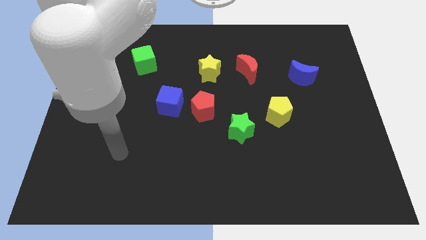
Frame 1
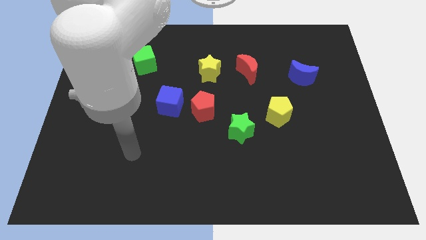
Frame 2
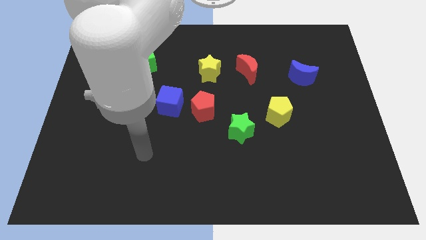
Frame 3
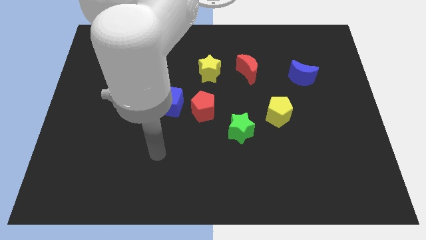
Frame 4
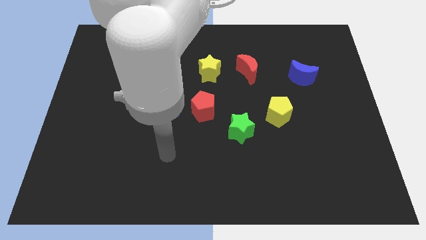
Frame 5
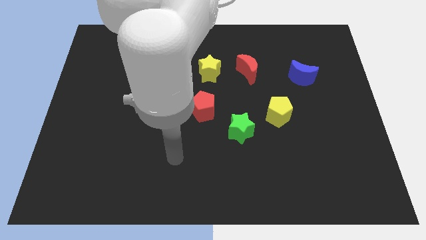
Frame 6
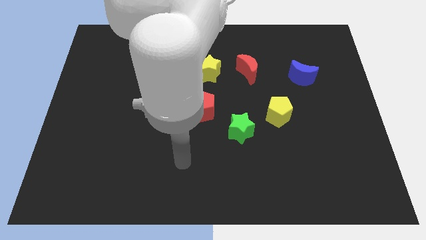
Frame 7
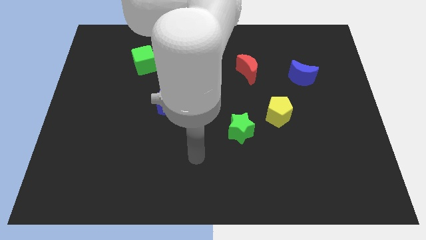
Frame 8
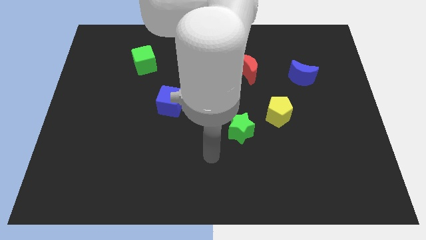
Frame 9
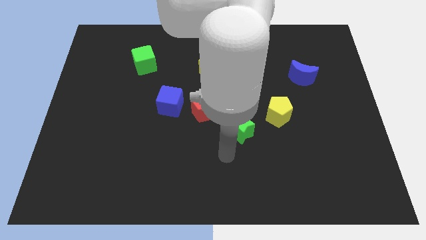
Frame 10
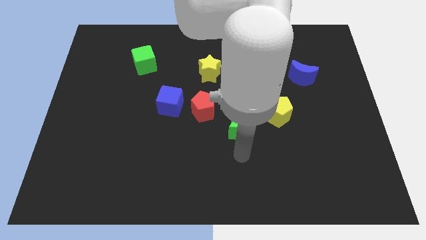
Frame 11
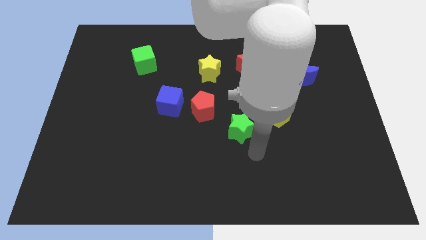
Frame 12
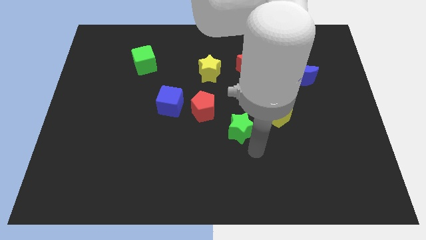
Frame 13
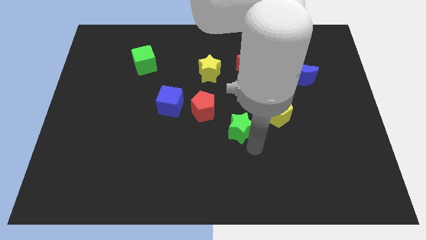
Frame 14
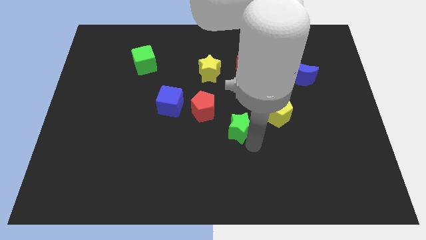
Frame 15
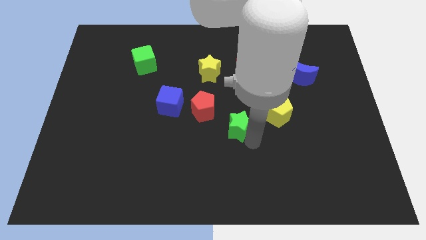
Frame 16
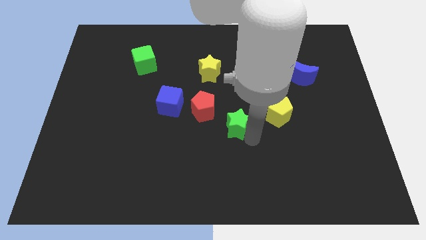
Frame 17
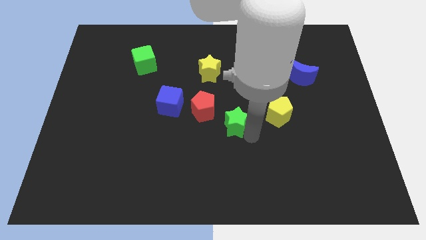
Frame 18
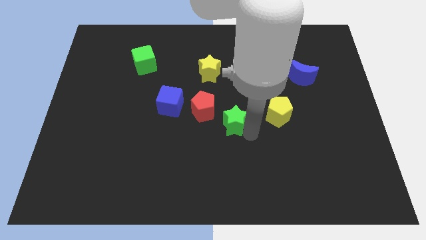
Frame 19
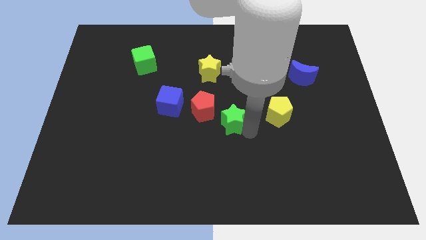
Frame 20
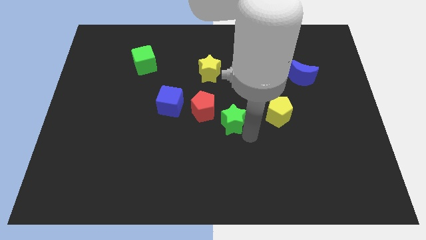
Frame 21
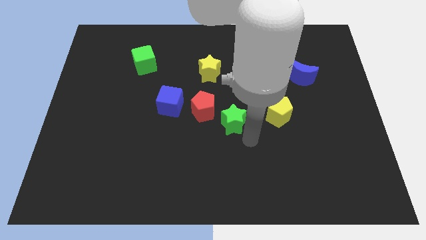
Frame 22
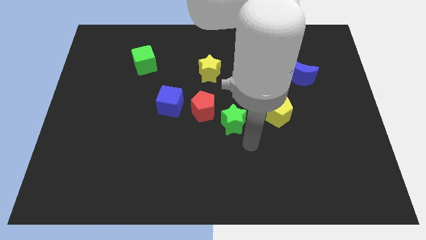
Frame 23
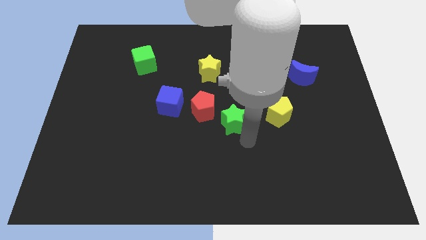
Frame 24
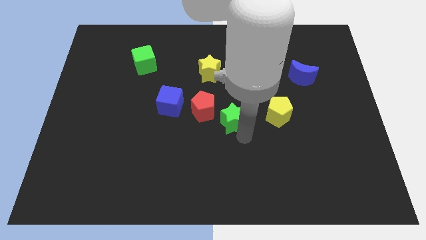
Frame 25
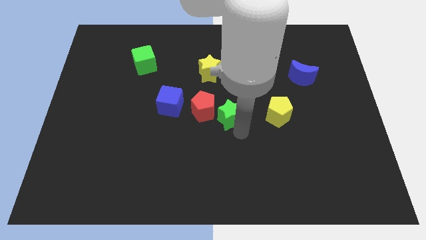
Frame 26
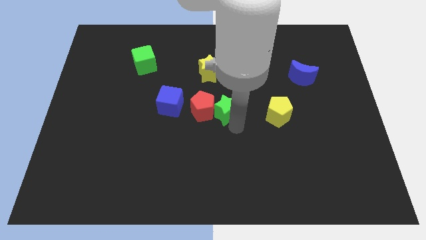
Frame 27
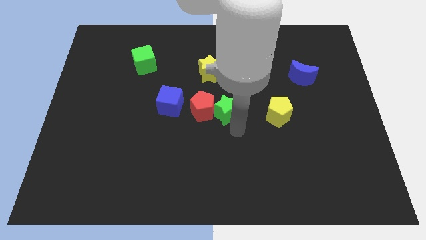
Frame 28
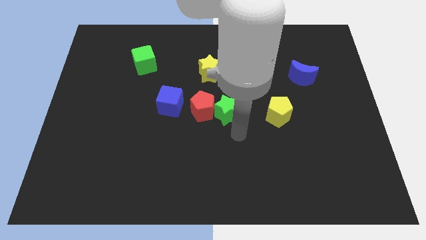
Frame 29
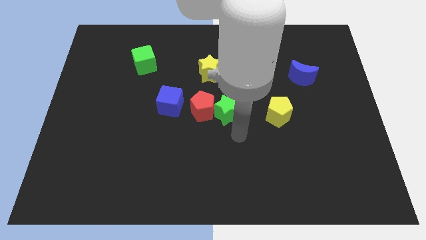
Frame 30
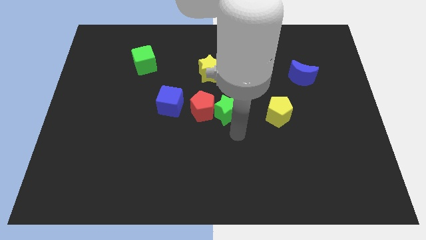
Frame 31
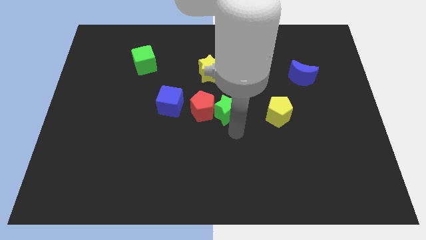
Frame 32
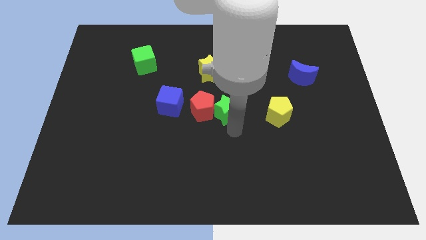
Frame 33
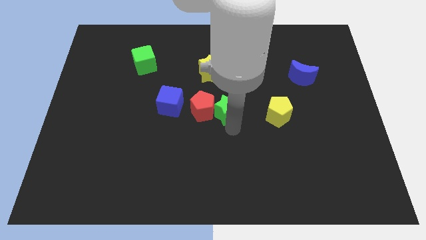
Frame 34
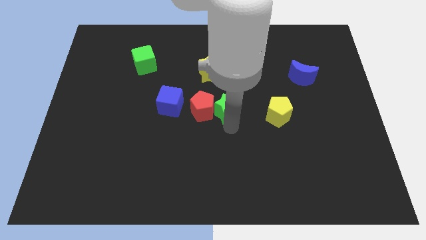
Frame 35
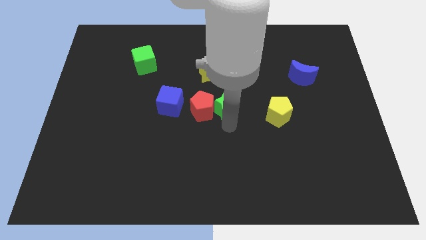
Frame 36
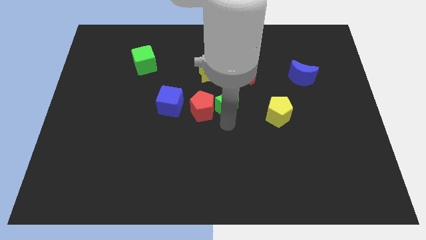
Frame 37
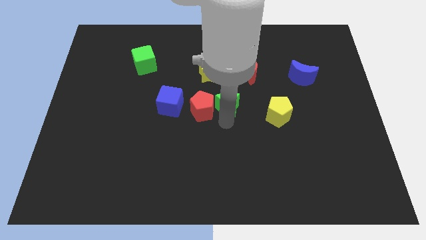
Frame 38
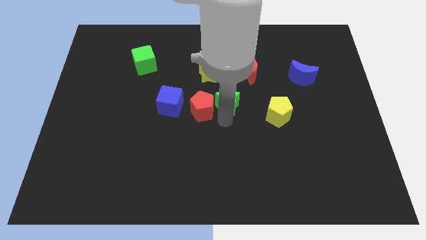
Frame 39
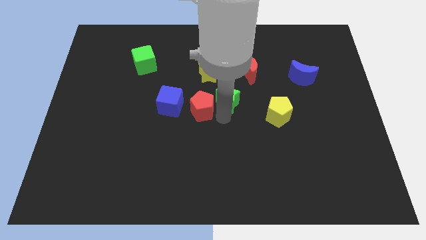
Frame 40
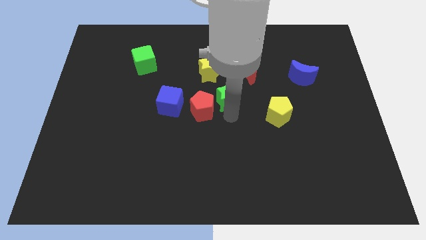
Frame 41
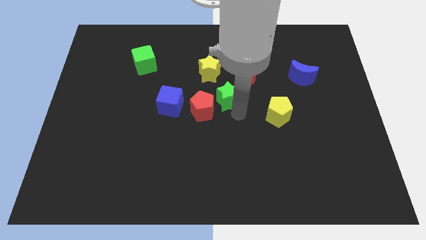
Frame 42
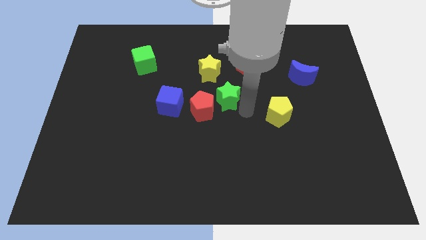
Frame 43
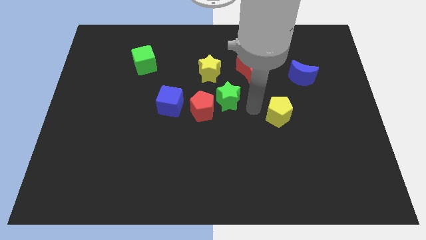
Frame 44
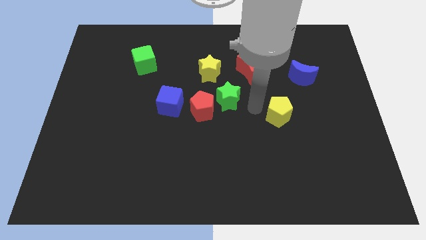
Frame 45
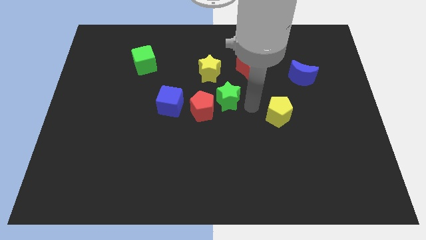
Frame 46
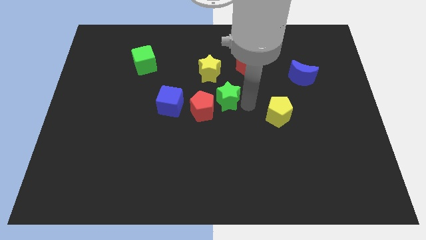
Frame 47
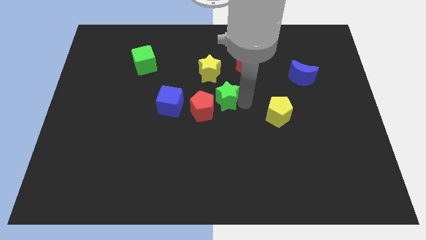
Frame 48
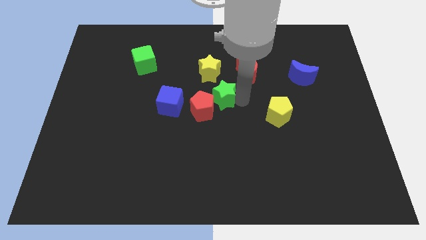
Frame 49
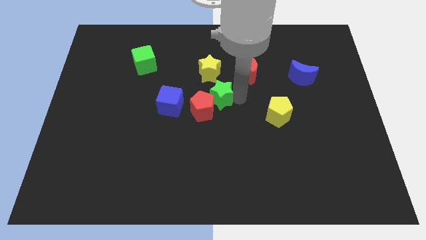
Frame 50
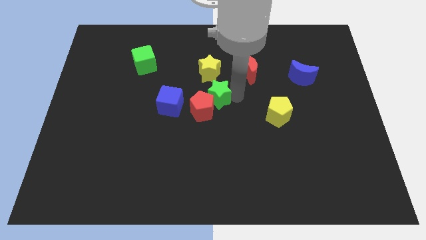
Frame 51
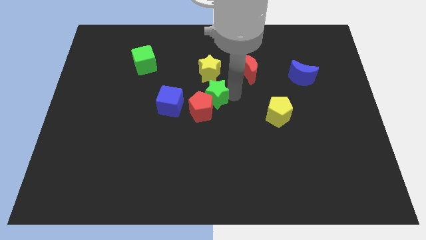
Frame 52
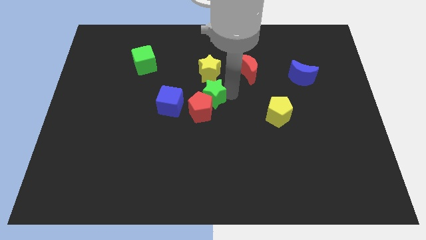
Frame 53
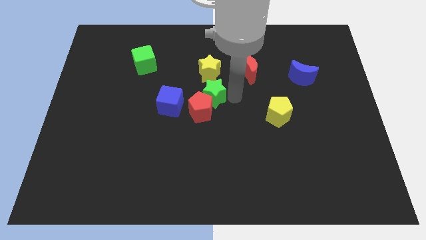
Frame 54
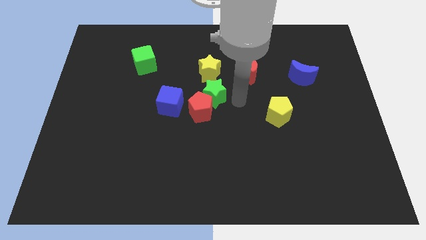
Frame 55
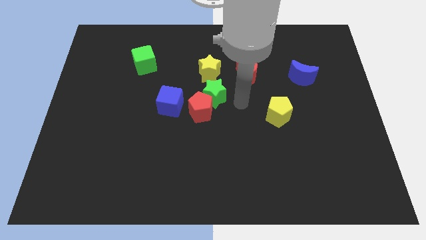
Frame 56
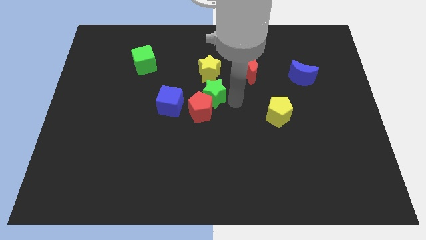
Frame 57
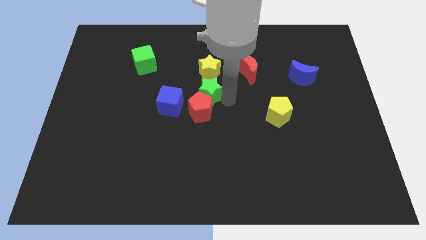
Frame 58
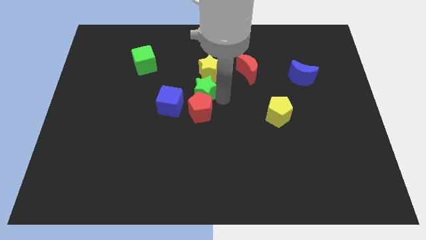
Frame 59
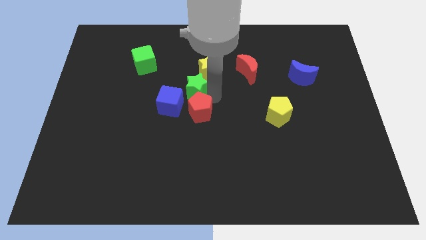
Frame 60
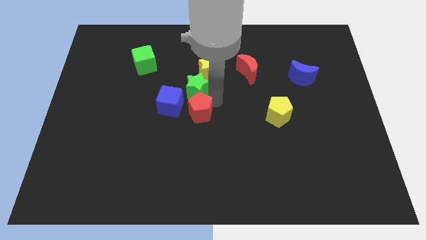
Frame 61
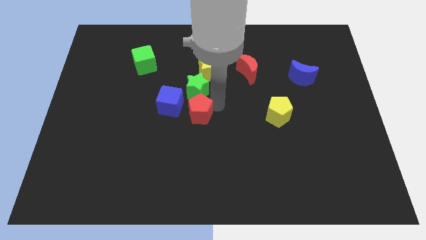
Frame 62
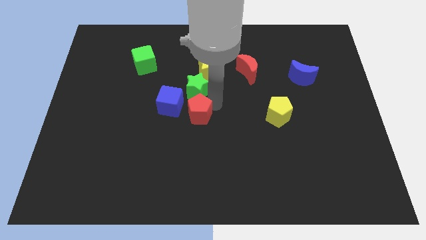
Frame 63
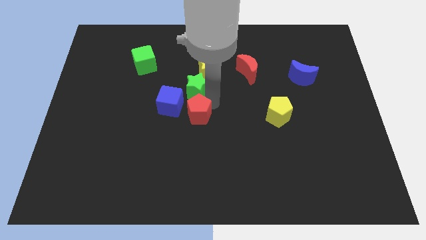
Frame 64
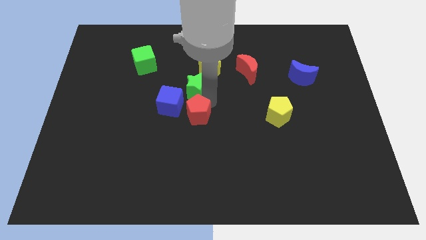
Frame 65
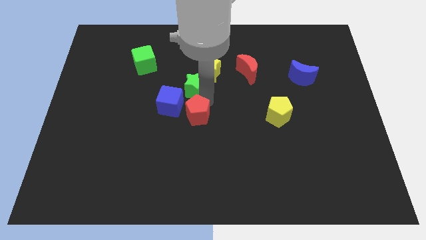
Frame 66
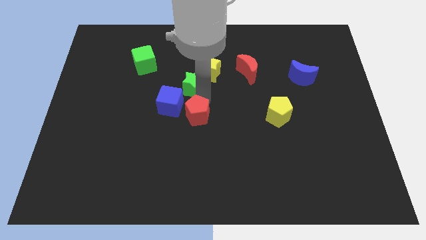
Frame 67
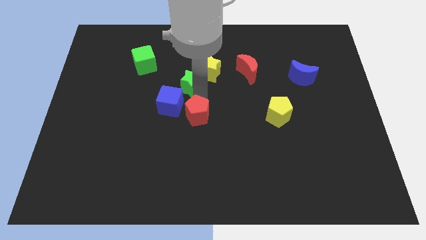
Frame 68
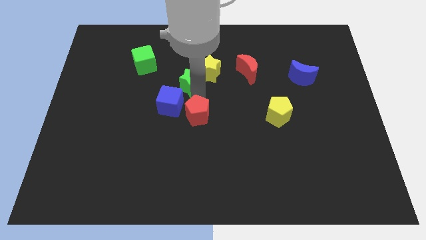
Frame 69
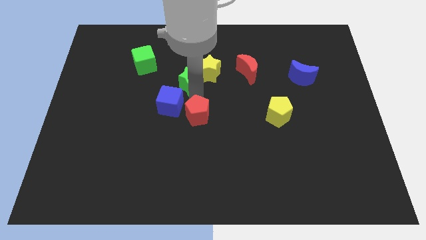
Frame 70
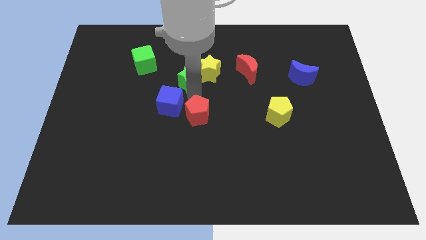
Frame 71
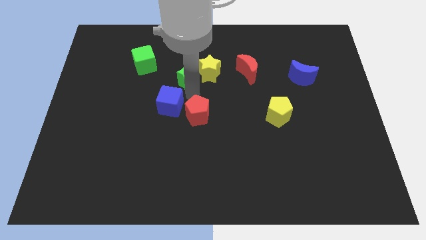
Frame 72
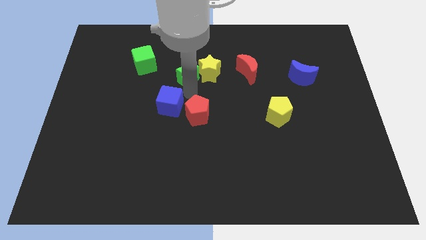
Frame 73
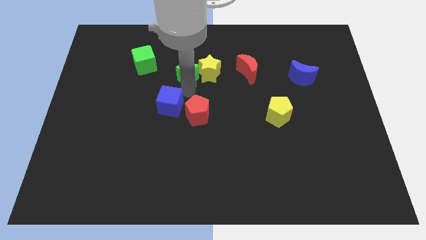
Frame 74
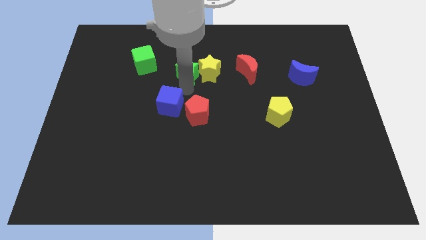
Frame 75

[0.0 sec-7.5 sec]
slide the green star just right of the green cube
